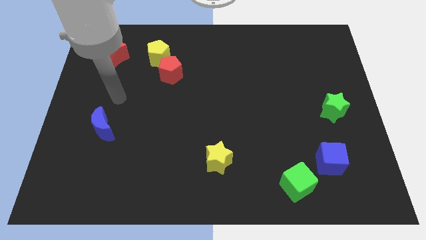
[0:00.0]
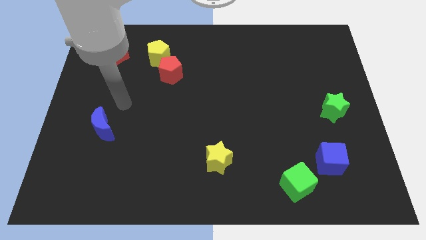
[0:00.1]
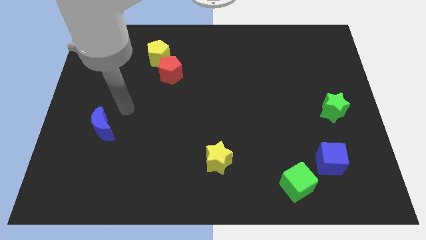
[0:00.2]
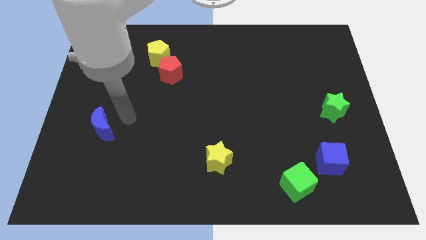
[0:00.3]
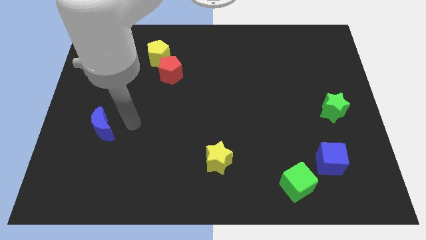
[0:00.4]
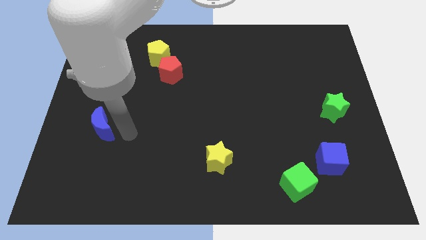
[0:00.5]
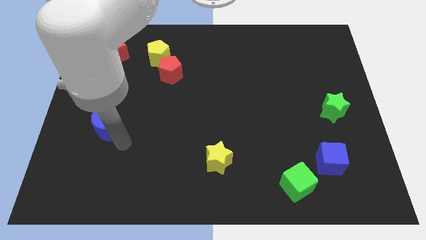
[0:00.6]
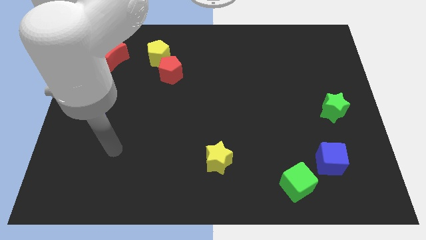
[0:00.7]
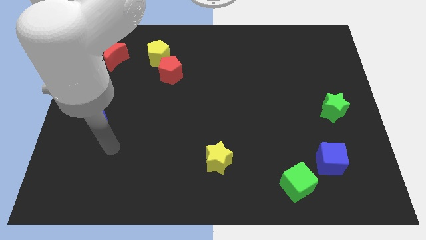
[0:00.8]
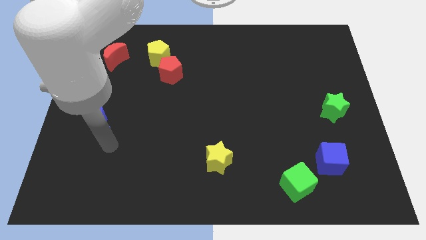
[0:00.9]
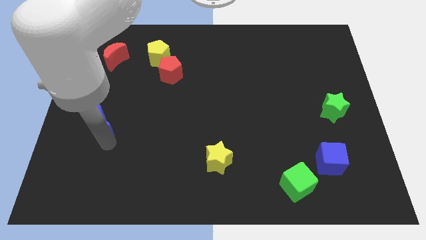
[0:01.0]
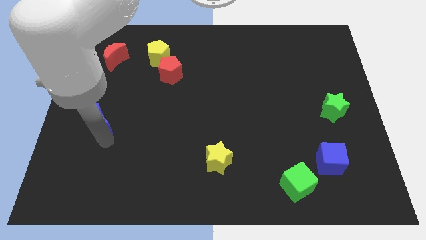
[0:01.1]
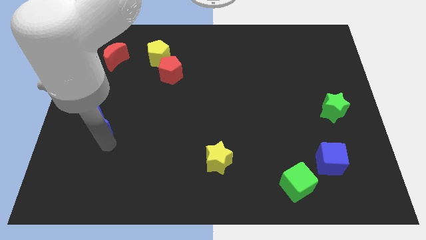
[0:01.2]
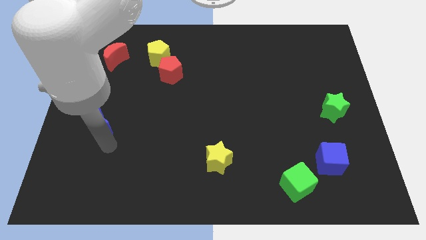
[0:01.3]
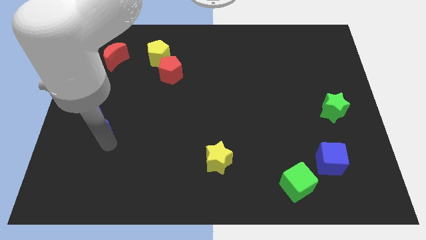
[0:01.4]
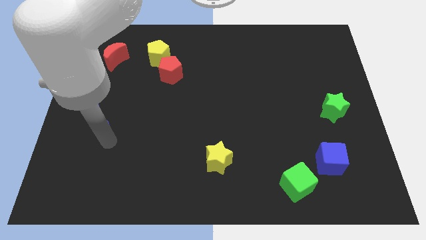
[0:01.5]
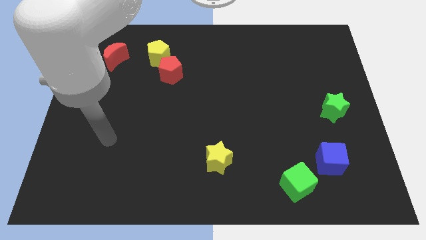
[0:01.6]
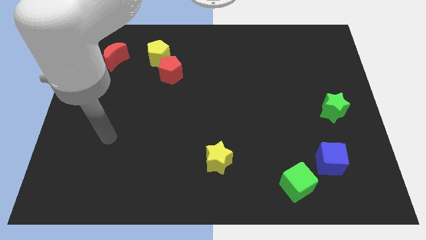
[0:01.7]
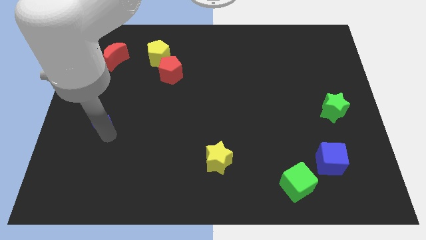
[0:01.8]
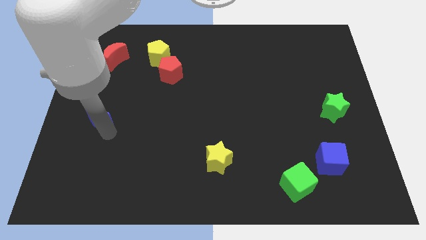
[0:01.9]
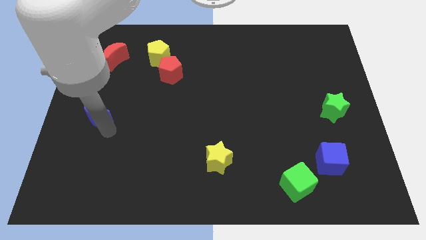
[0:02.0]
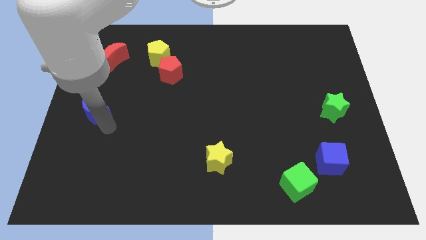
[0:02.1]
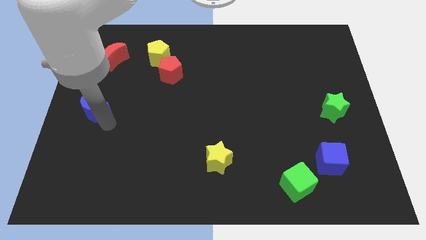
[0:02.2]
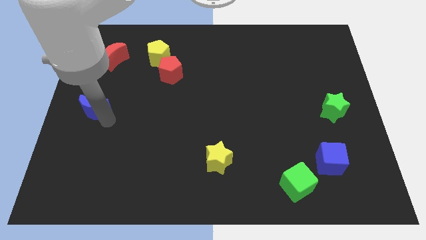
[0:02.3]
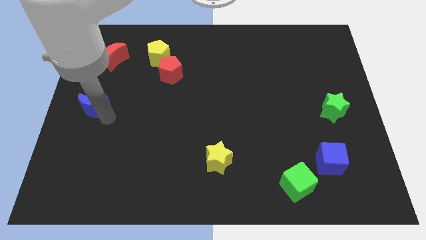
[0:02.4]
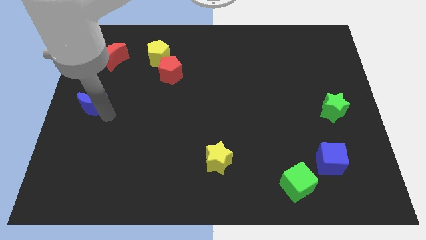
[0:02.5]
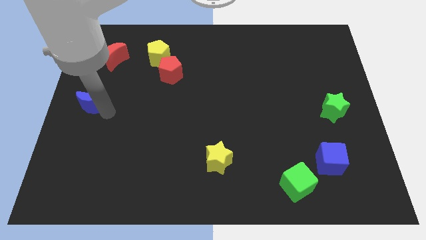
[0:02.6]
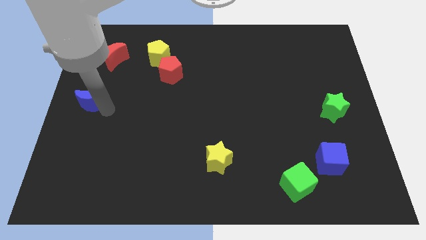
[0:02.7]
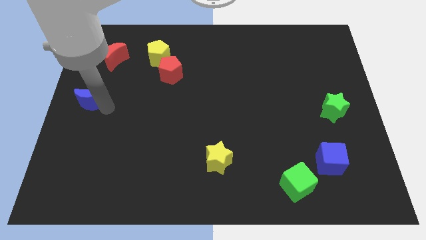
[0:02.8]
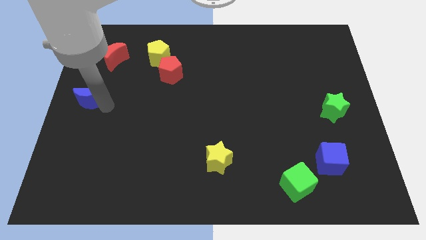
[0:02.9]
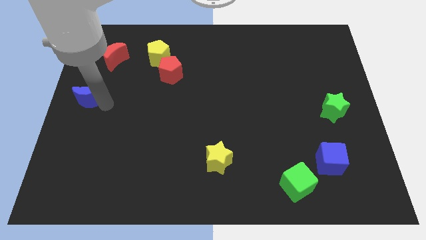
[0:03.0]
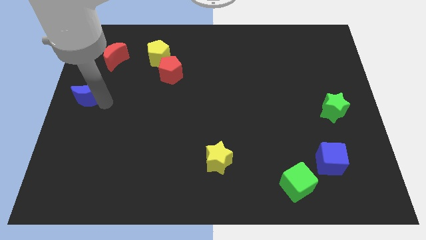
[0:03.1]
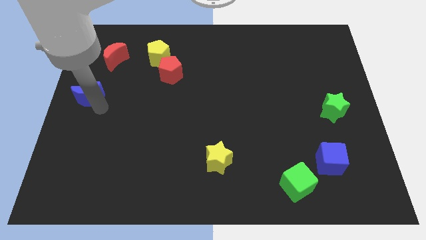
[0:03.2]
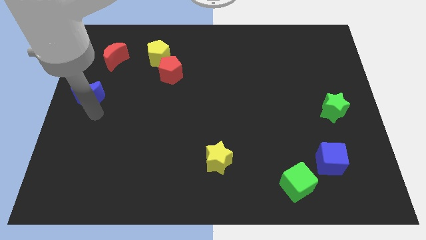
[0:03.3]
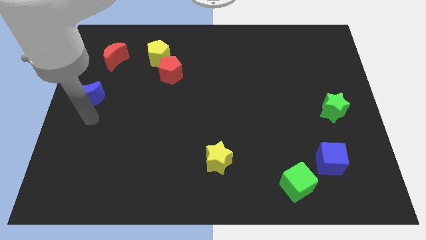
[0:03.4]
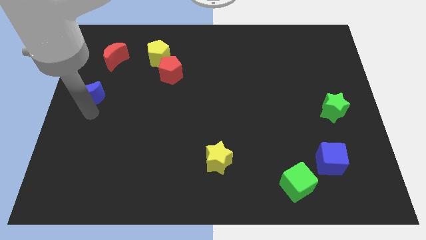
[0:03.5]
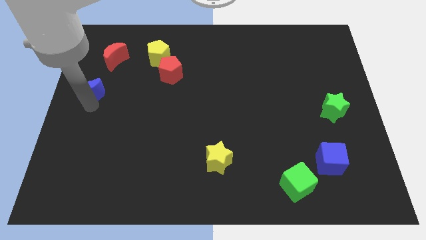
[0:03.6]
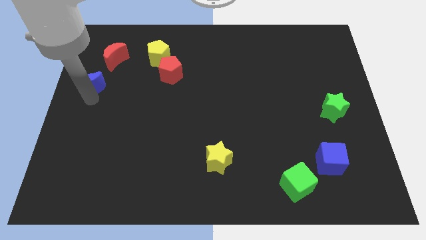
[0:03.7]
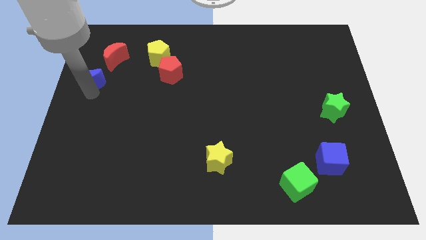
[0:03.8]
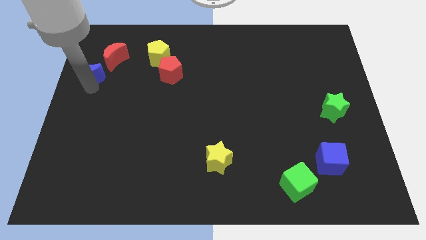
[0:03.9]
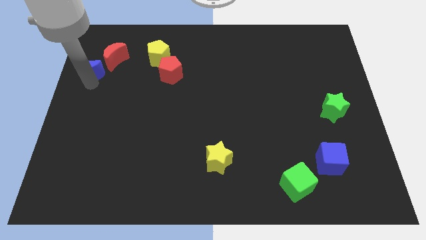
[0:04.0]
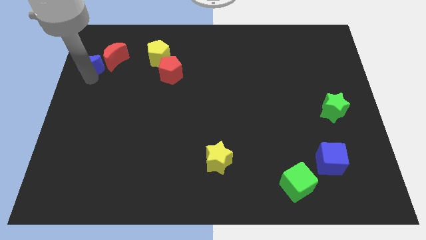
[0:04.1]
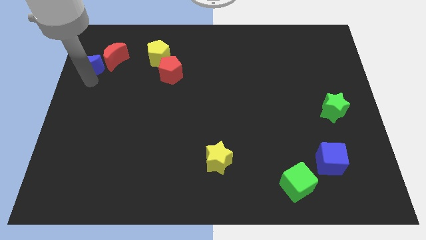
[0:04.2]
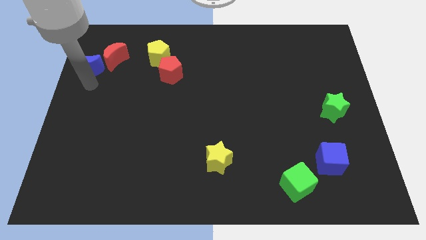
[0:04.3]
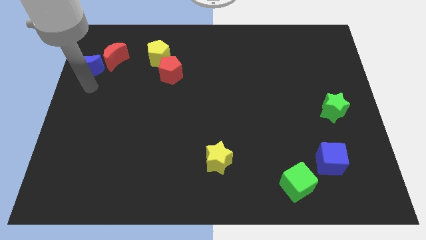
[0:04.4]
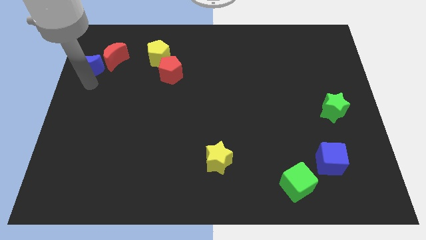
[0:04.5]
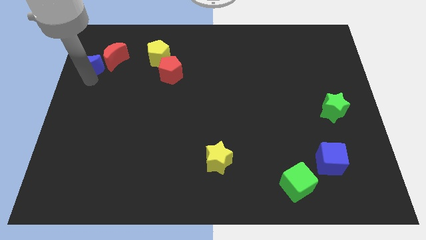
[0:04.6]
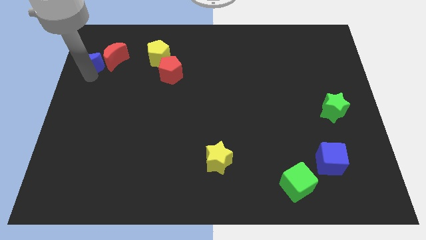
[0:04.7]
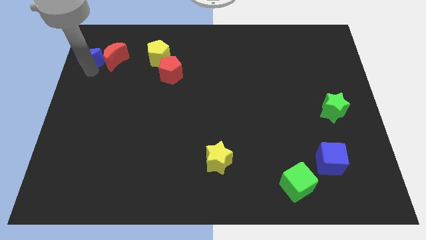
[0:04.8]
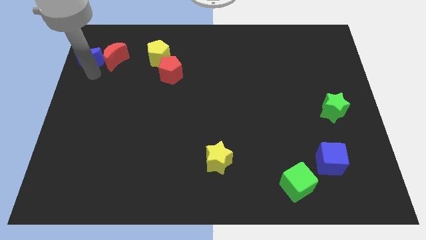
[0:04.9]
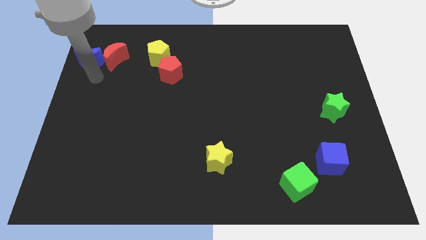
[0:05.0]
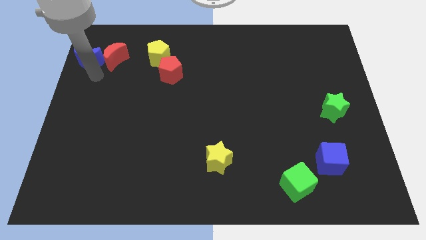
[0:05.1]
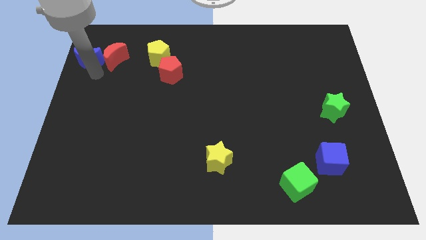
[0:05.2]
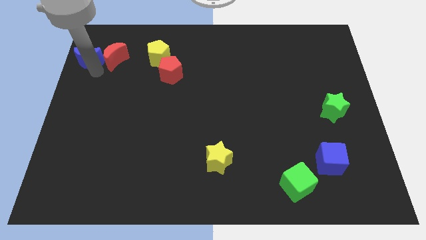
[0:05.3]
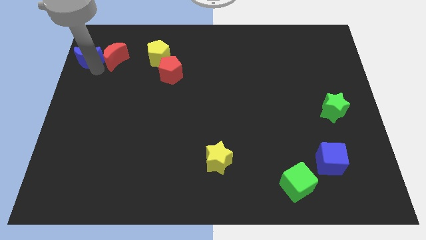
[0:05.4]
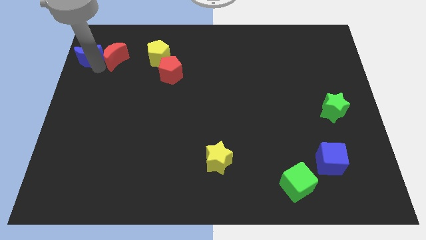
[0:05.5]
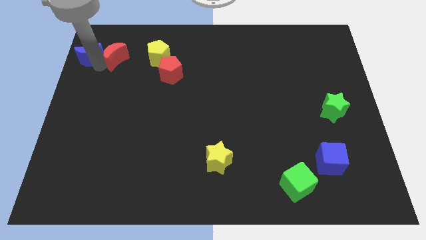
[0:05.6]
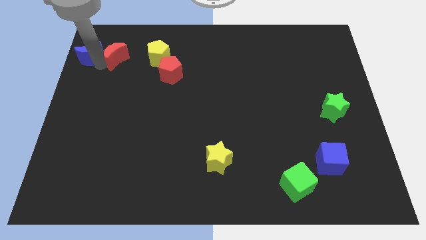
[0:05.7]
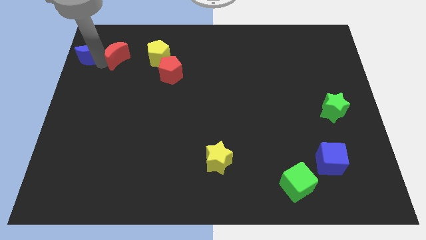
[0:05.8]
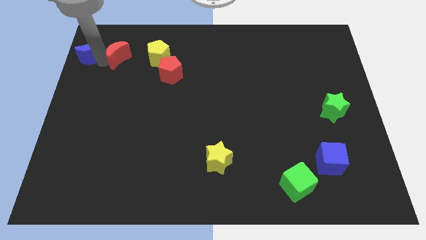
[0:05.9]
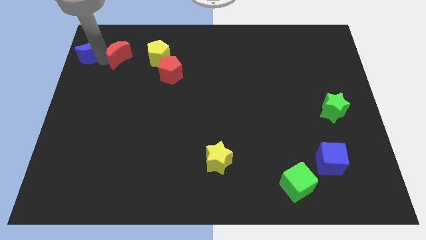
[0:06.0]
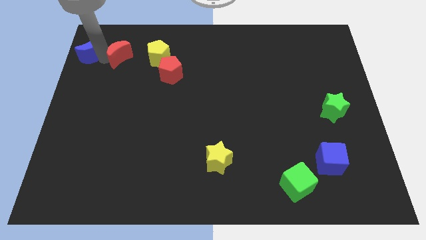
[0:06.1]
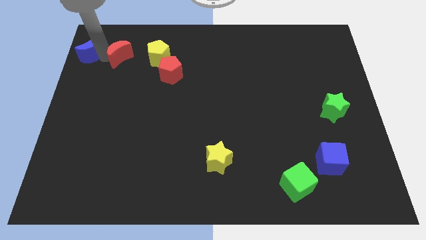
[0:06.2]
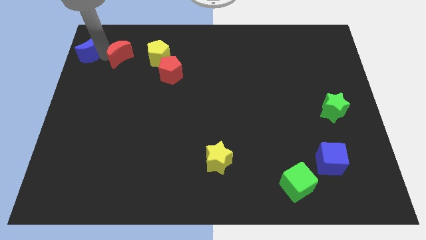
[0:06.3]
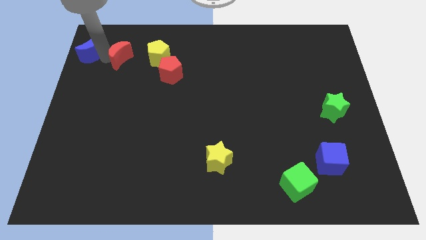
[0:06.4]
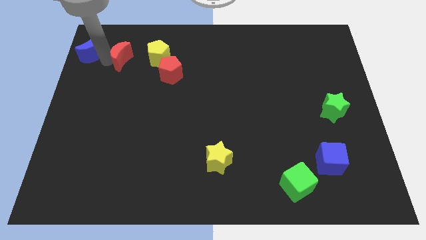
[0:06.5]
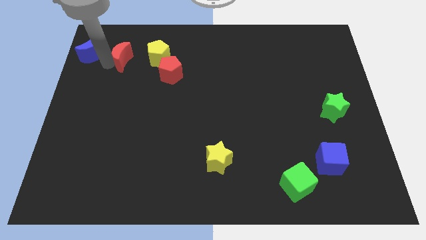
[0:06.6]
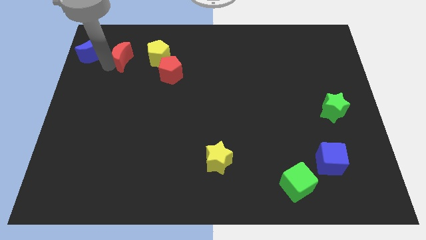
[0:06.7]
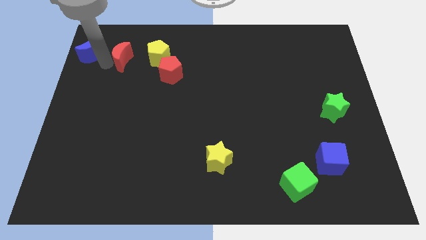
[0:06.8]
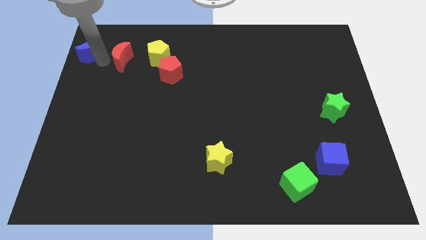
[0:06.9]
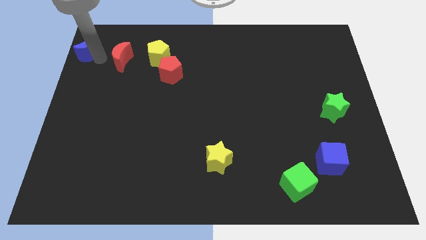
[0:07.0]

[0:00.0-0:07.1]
slide the blue moon to the top left of the board
